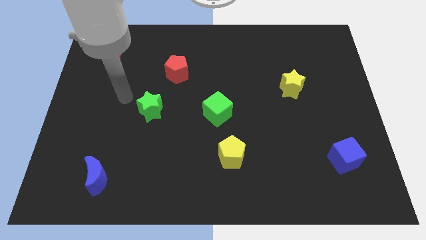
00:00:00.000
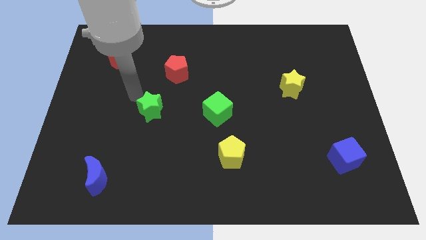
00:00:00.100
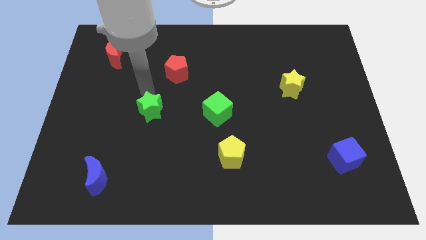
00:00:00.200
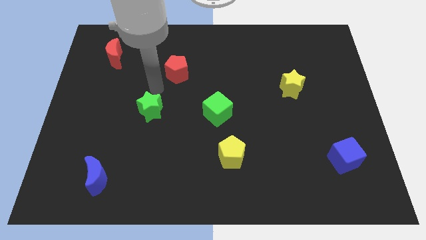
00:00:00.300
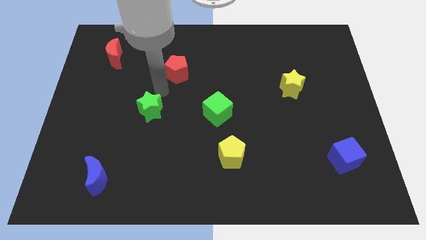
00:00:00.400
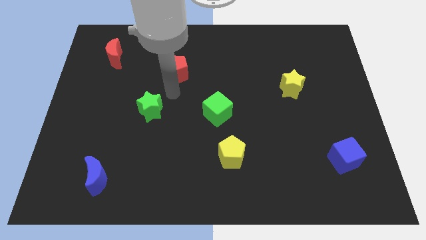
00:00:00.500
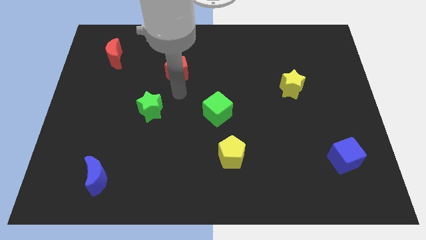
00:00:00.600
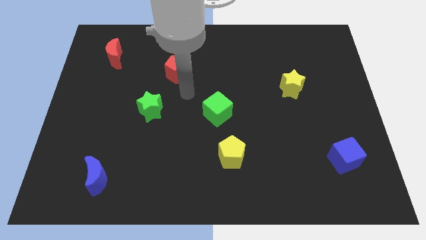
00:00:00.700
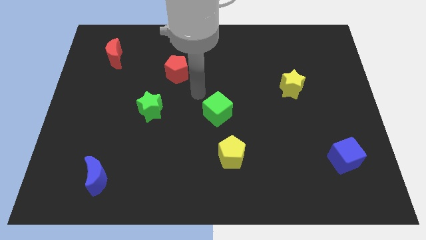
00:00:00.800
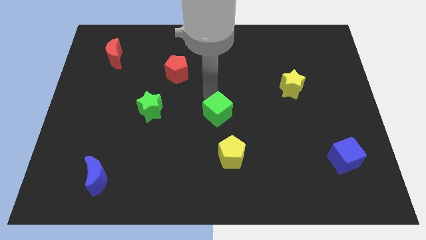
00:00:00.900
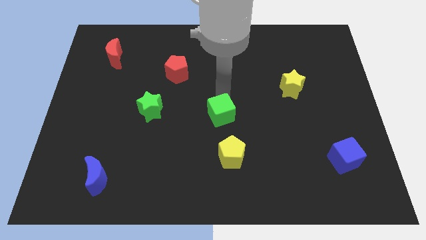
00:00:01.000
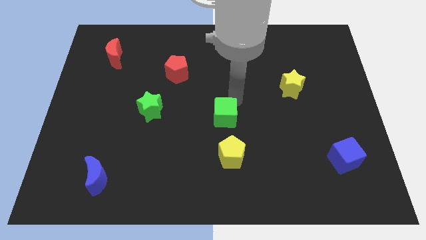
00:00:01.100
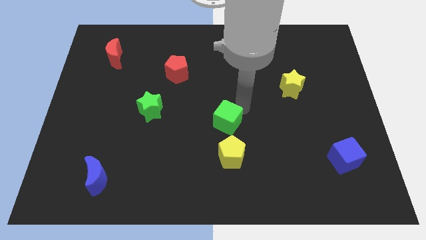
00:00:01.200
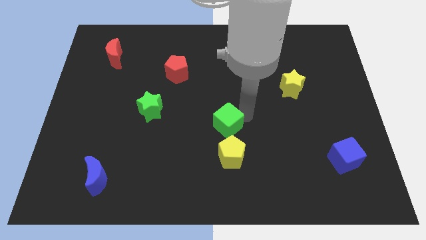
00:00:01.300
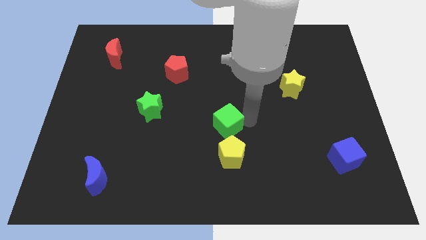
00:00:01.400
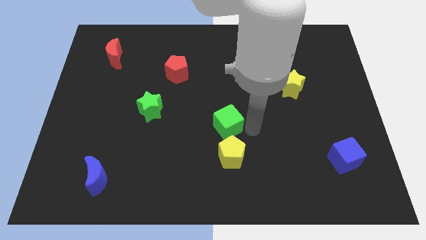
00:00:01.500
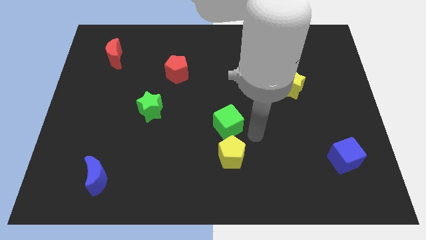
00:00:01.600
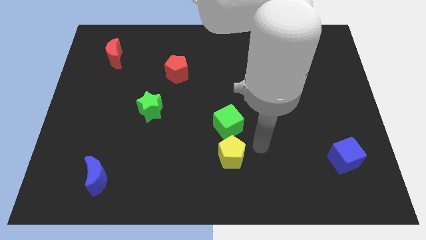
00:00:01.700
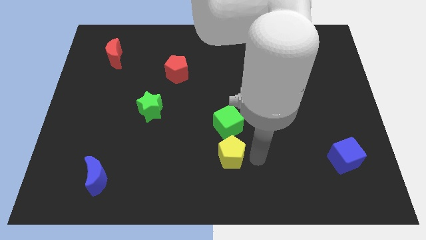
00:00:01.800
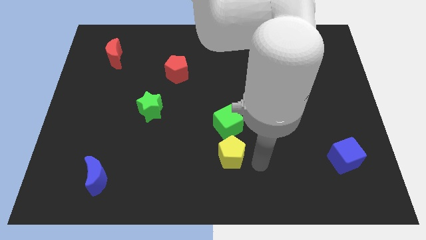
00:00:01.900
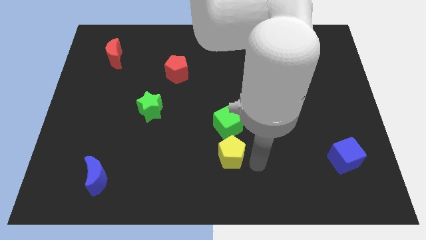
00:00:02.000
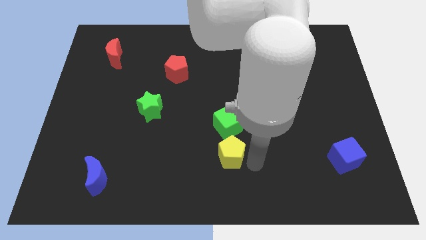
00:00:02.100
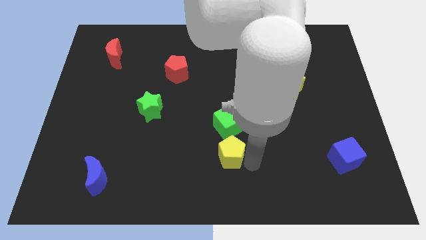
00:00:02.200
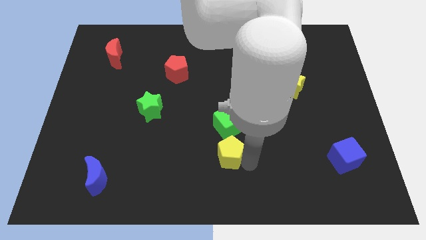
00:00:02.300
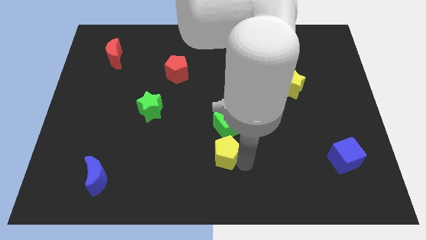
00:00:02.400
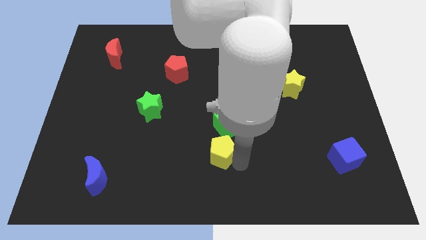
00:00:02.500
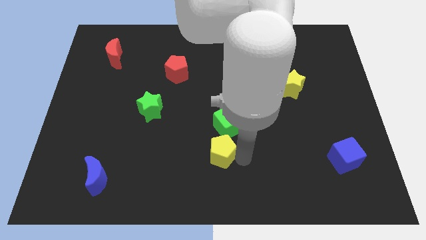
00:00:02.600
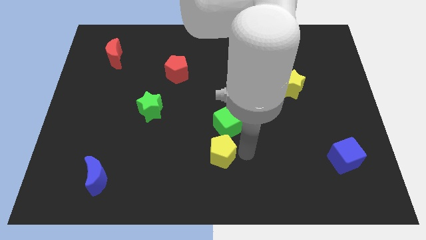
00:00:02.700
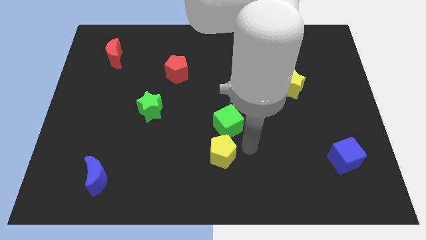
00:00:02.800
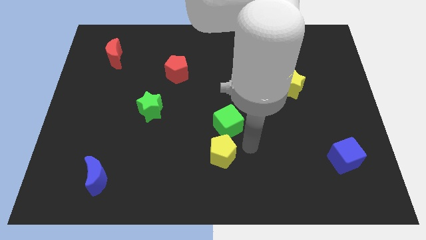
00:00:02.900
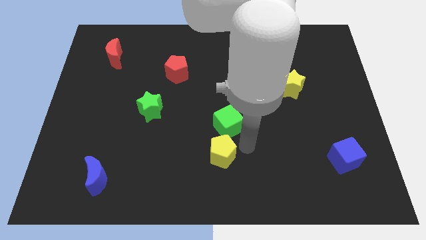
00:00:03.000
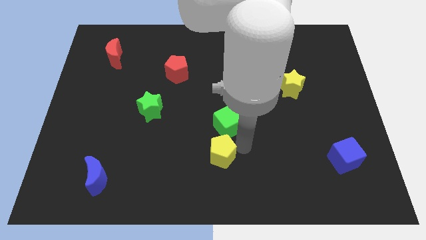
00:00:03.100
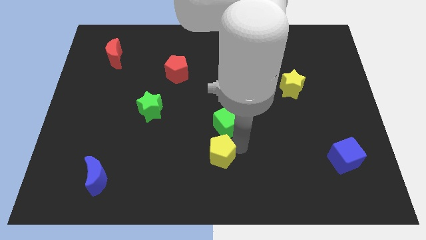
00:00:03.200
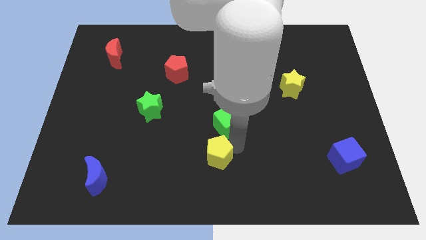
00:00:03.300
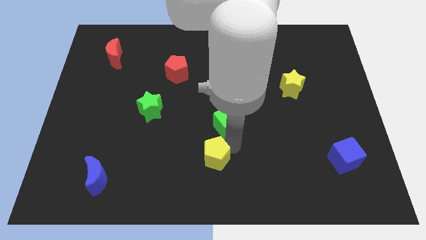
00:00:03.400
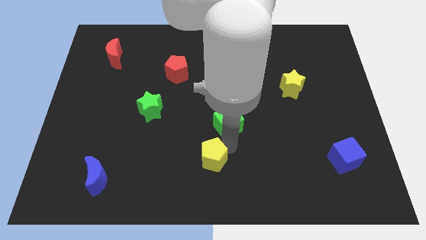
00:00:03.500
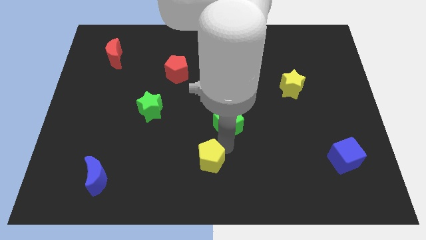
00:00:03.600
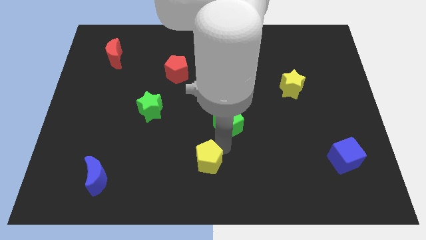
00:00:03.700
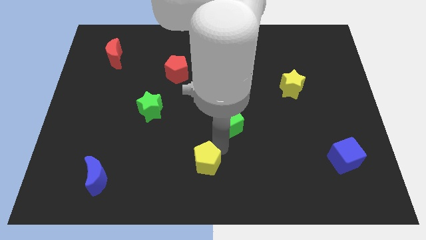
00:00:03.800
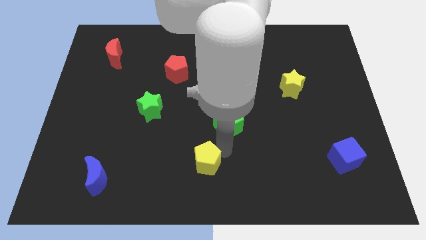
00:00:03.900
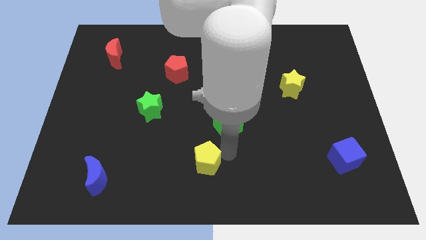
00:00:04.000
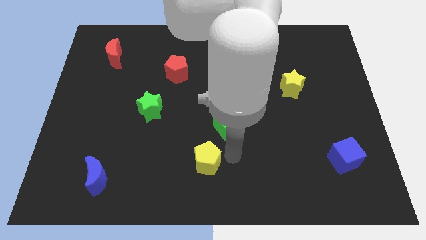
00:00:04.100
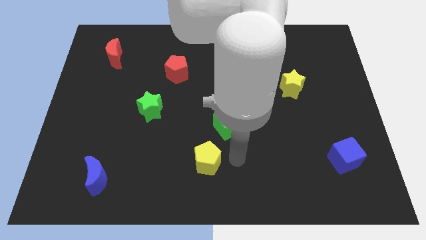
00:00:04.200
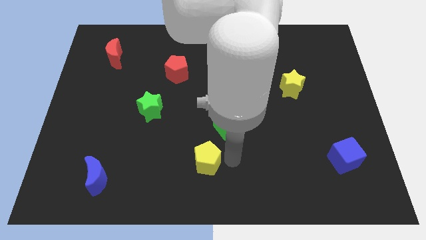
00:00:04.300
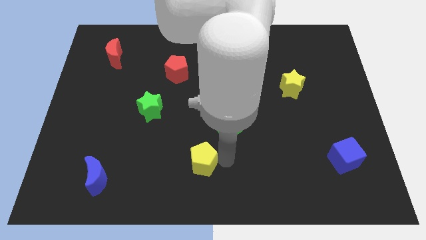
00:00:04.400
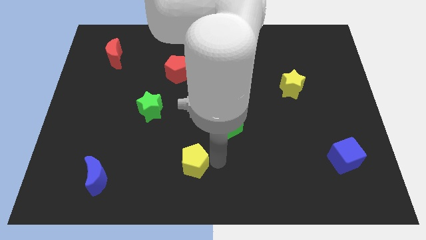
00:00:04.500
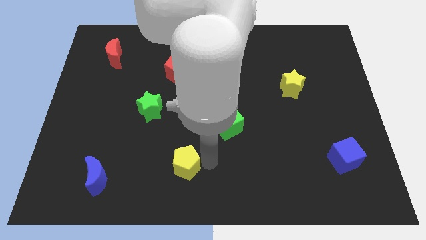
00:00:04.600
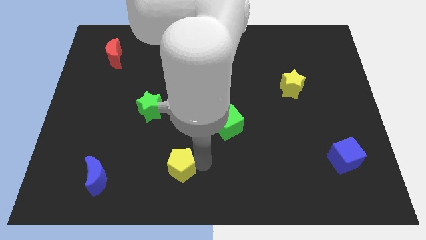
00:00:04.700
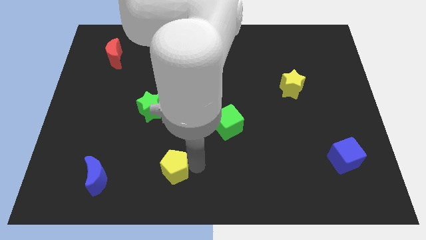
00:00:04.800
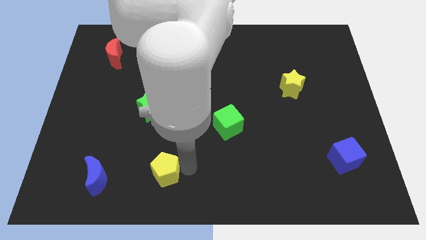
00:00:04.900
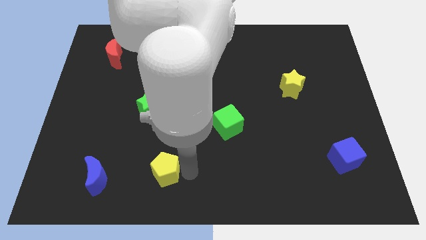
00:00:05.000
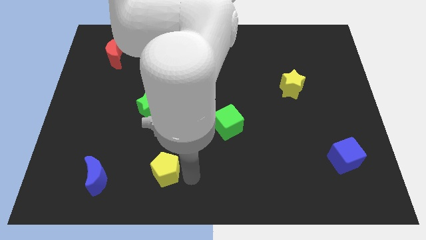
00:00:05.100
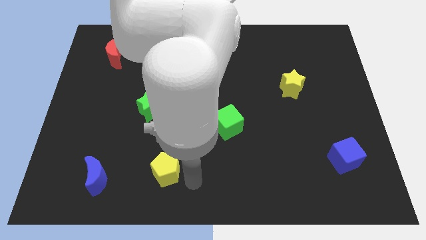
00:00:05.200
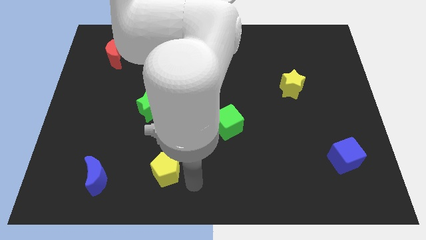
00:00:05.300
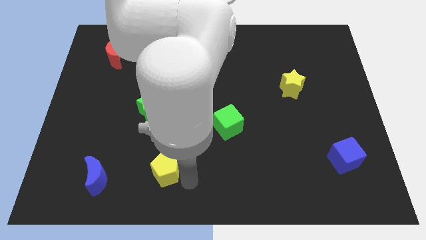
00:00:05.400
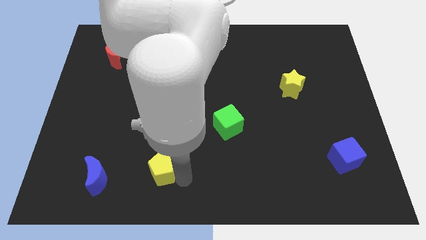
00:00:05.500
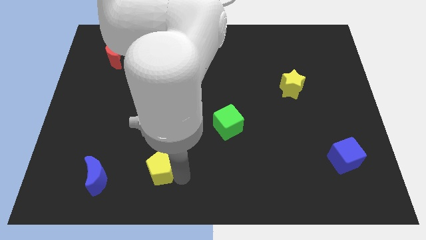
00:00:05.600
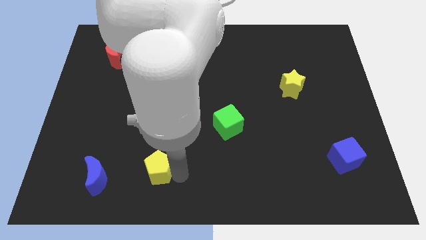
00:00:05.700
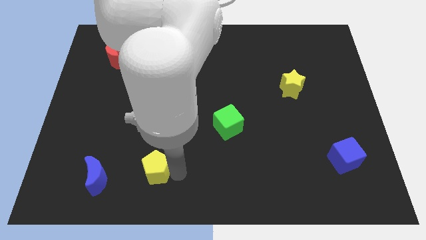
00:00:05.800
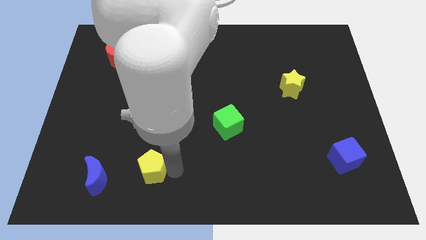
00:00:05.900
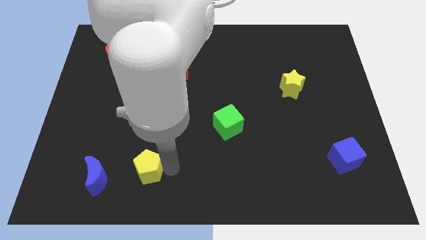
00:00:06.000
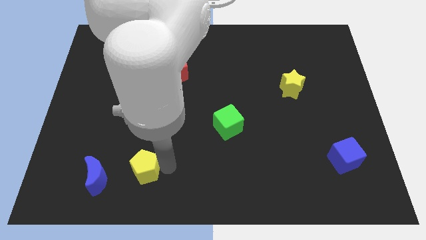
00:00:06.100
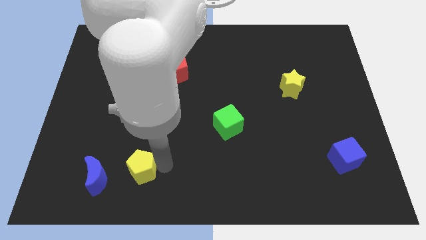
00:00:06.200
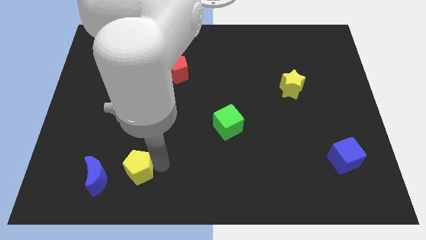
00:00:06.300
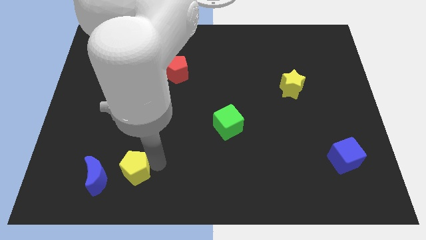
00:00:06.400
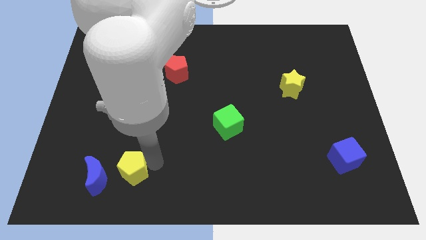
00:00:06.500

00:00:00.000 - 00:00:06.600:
move the yellow pentagon left

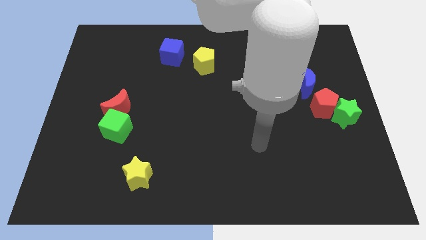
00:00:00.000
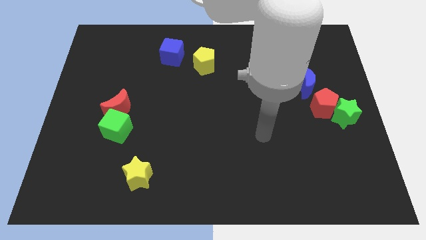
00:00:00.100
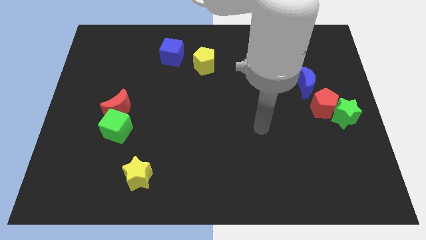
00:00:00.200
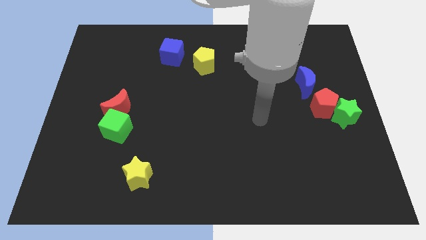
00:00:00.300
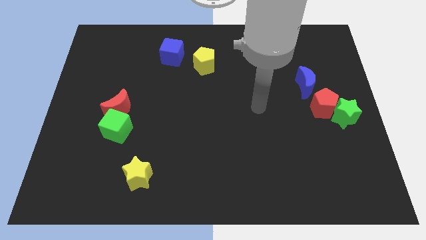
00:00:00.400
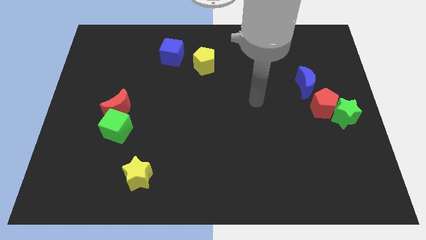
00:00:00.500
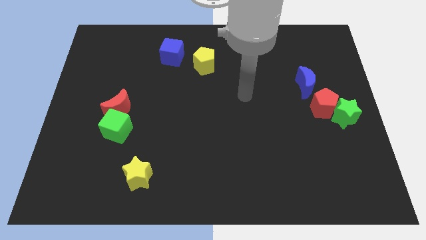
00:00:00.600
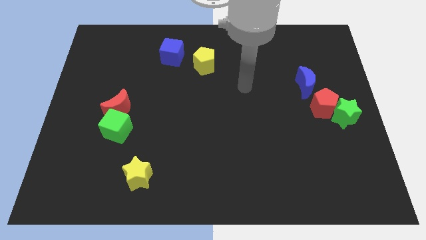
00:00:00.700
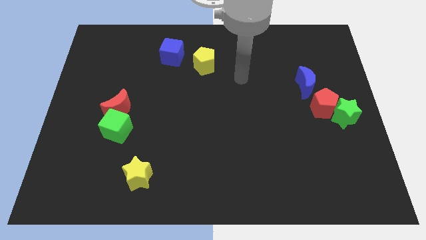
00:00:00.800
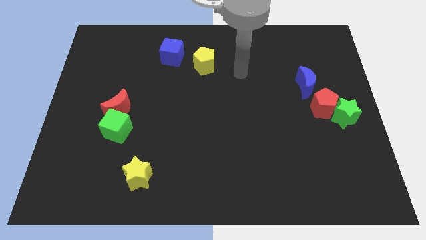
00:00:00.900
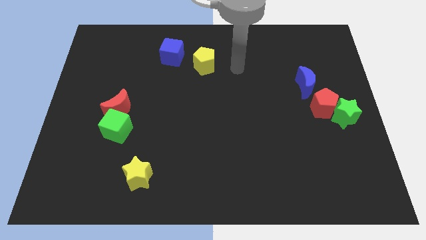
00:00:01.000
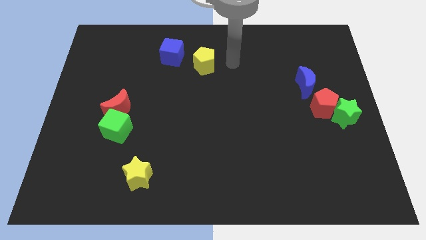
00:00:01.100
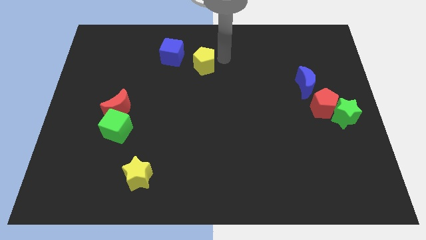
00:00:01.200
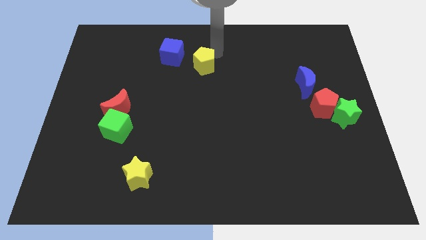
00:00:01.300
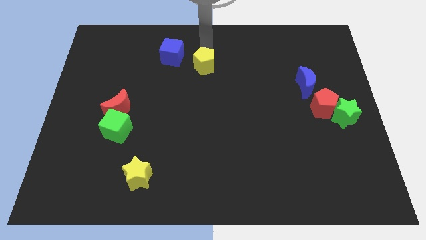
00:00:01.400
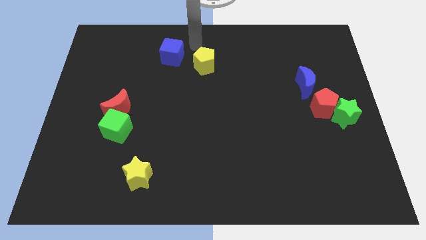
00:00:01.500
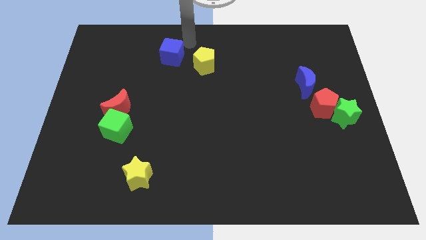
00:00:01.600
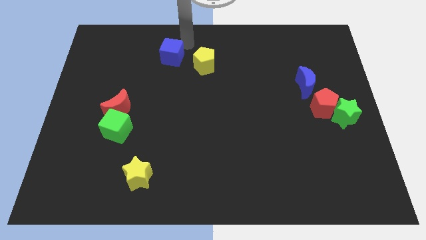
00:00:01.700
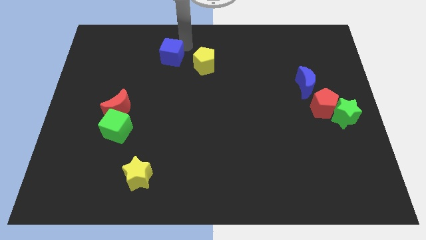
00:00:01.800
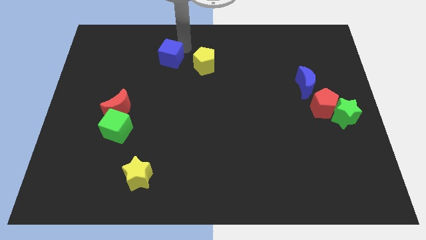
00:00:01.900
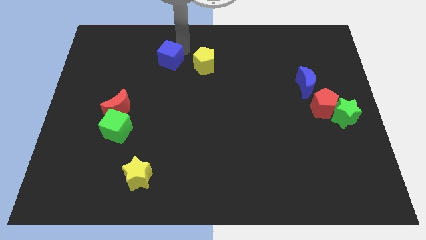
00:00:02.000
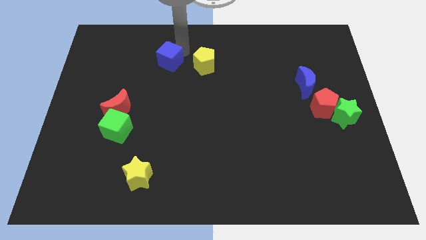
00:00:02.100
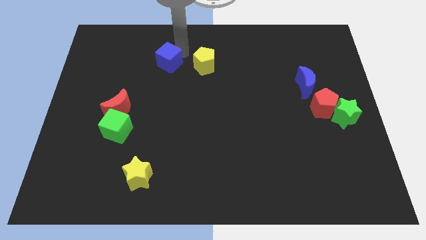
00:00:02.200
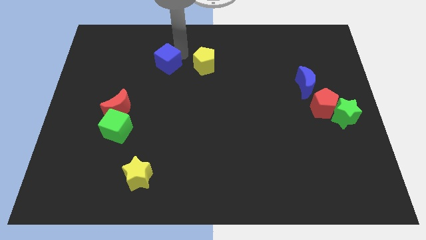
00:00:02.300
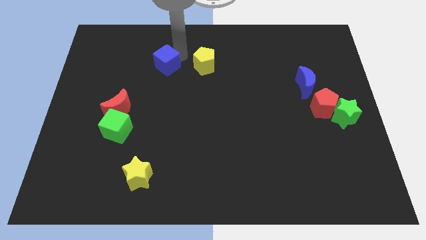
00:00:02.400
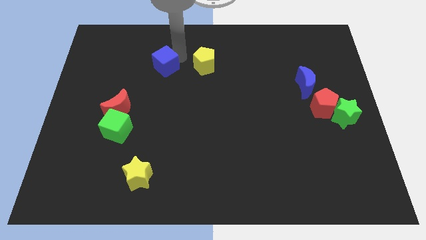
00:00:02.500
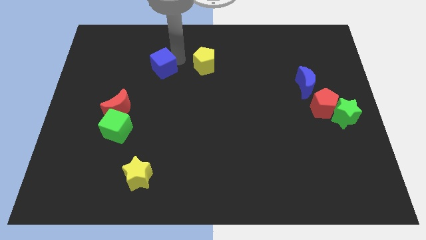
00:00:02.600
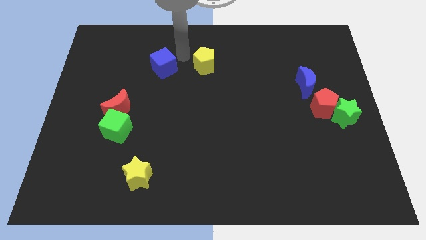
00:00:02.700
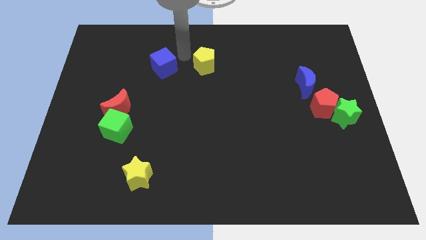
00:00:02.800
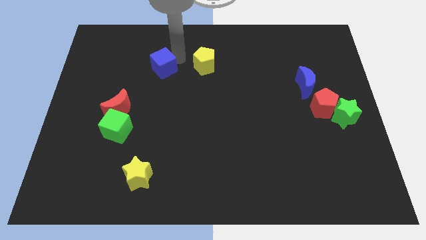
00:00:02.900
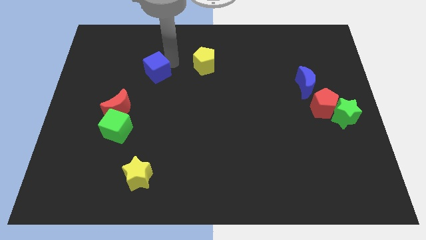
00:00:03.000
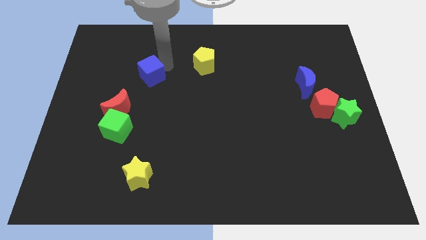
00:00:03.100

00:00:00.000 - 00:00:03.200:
slightly slide the blue cube diagonally down and left
